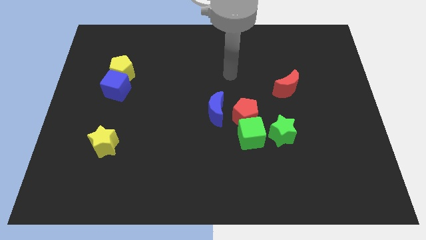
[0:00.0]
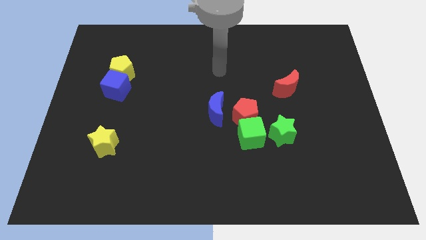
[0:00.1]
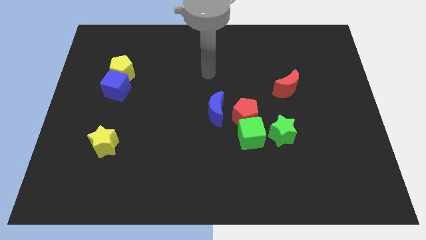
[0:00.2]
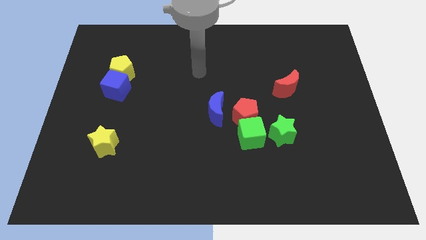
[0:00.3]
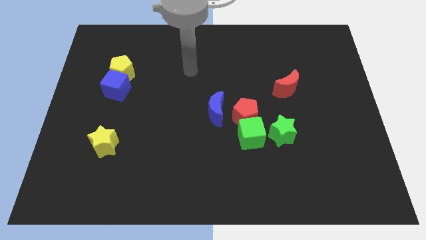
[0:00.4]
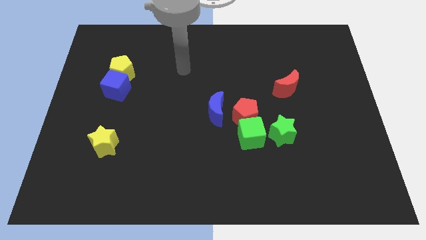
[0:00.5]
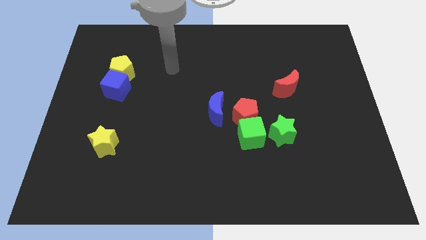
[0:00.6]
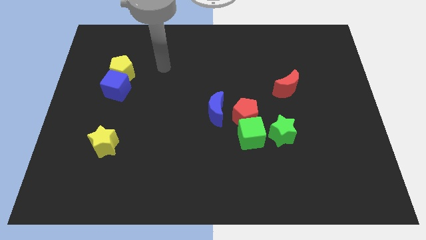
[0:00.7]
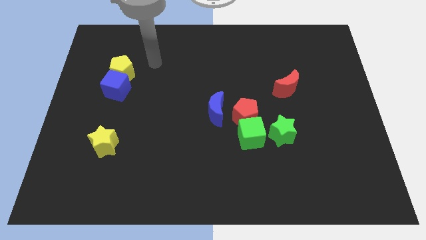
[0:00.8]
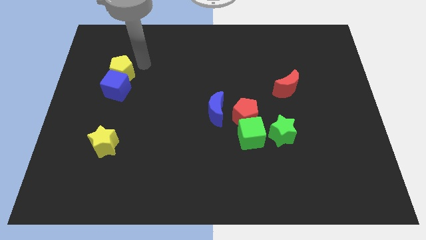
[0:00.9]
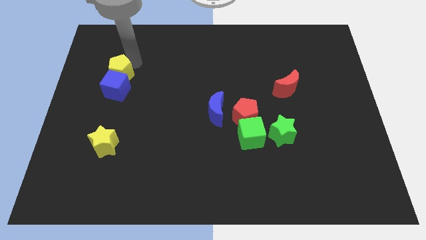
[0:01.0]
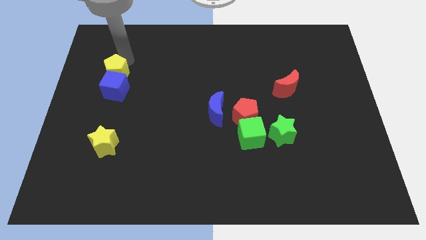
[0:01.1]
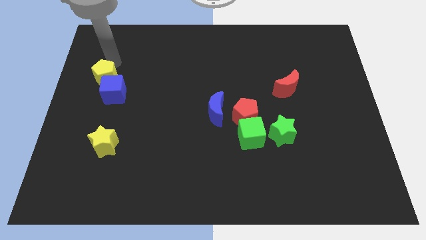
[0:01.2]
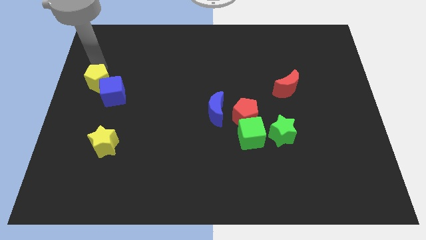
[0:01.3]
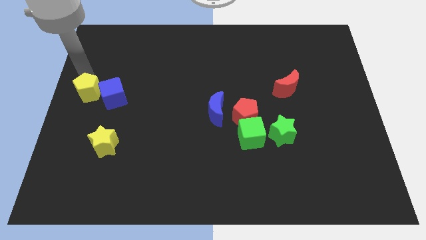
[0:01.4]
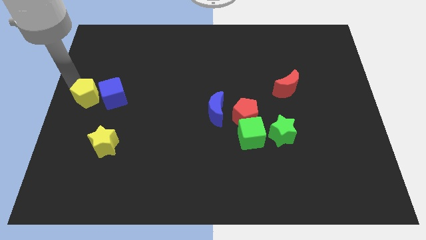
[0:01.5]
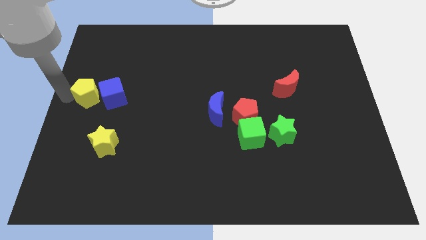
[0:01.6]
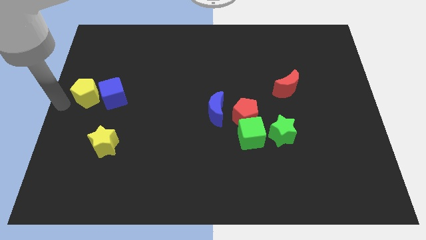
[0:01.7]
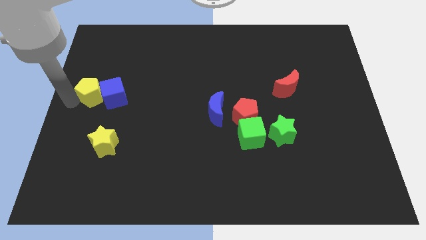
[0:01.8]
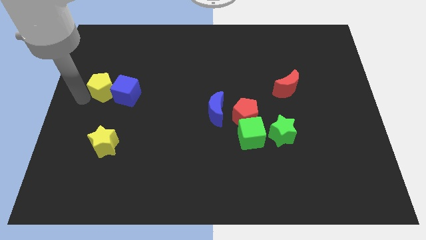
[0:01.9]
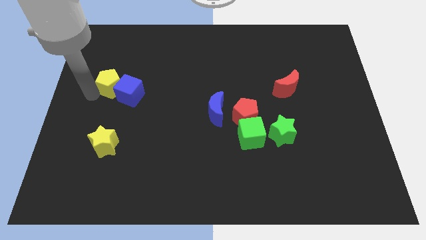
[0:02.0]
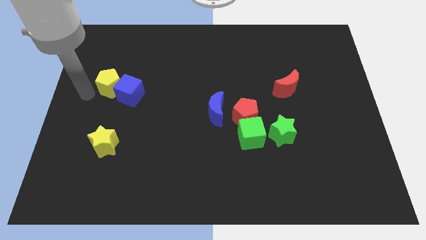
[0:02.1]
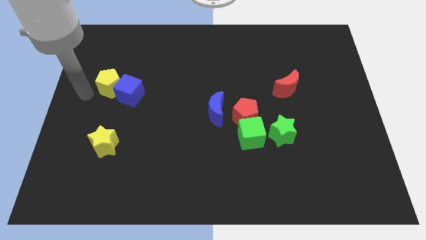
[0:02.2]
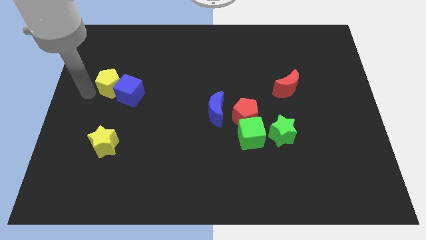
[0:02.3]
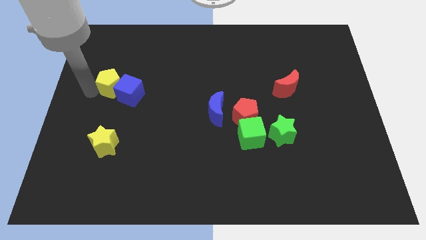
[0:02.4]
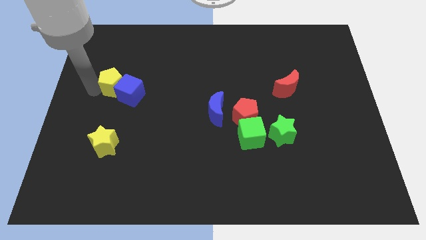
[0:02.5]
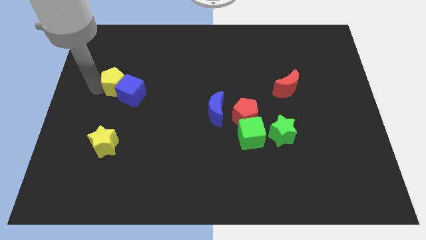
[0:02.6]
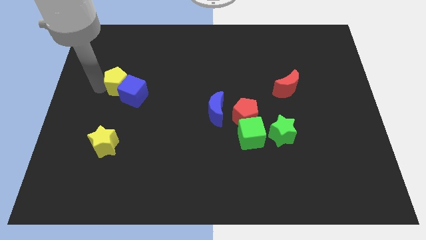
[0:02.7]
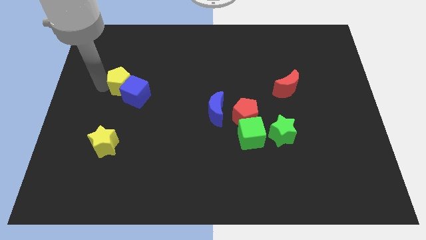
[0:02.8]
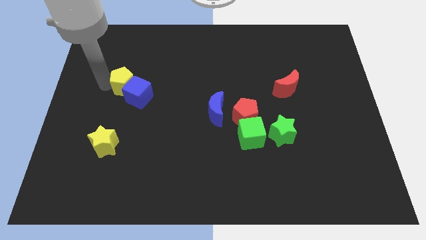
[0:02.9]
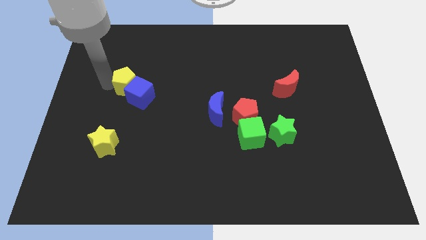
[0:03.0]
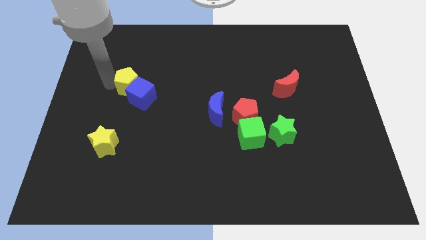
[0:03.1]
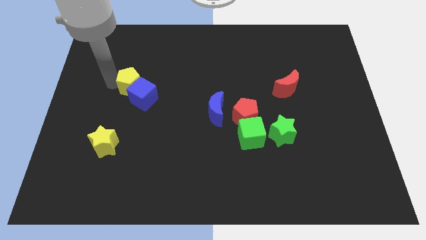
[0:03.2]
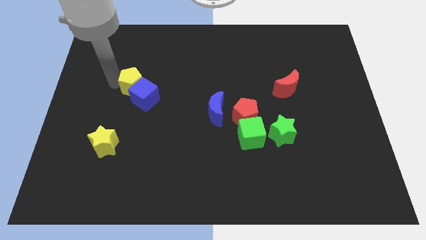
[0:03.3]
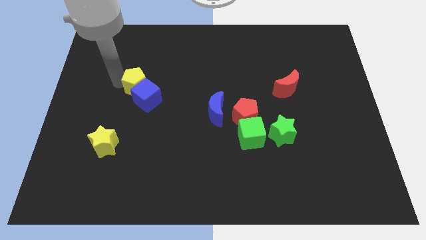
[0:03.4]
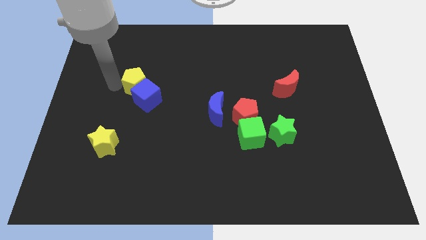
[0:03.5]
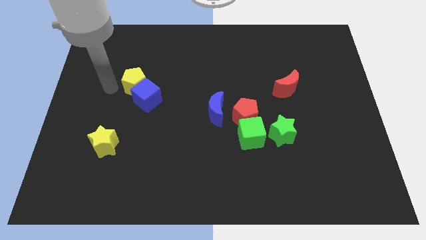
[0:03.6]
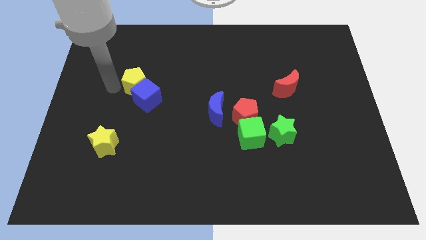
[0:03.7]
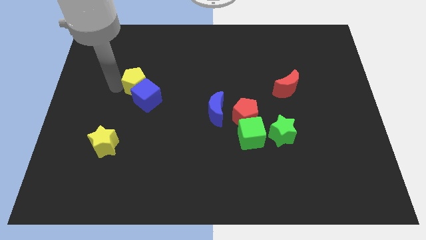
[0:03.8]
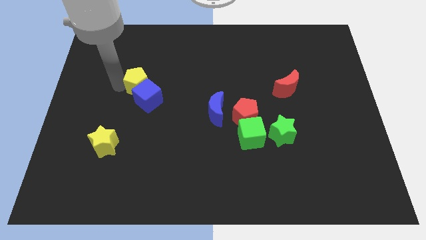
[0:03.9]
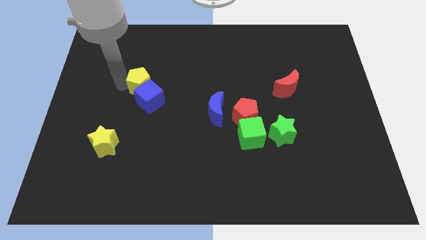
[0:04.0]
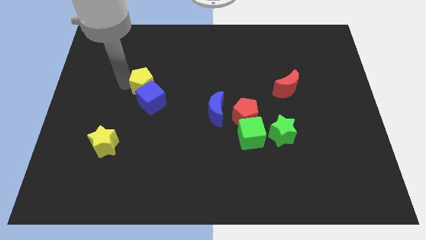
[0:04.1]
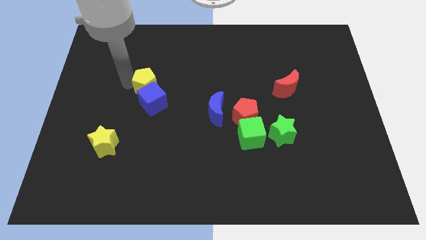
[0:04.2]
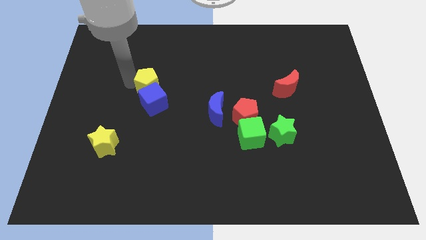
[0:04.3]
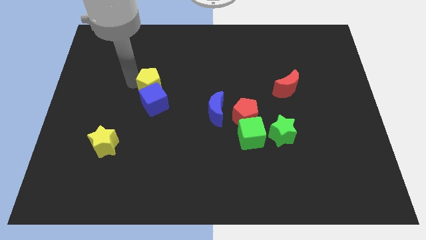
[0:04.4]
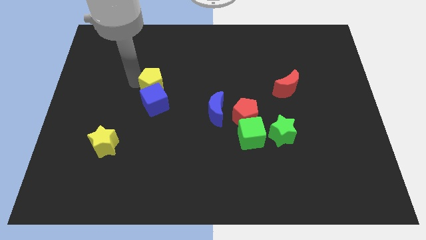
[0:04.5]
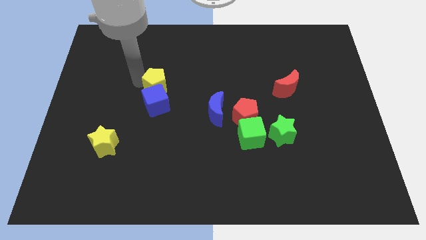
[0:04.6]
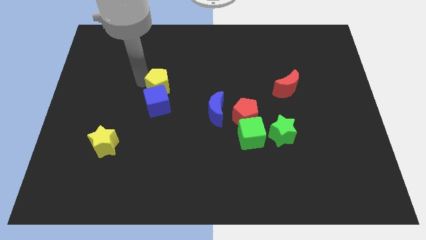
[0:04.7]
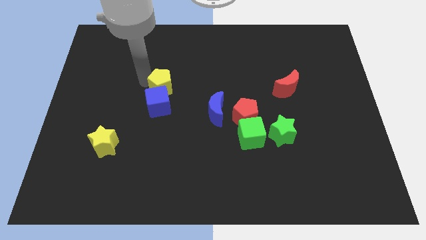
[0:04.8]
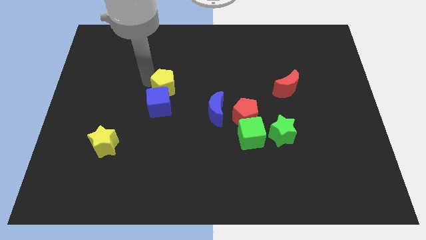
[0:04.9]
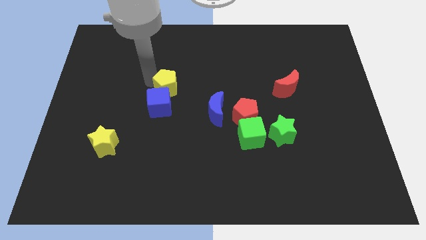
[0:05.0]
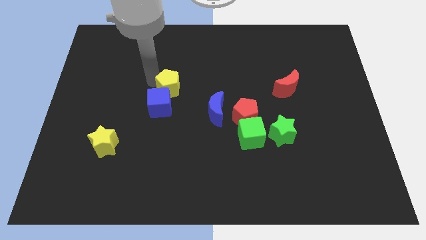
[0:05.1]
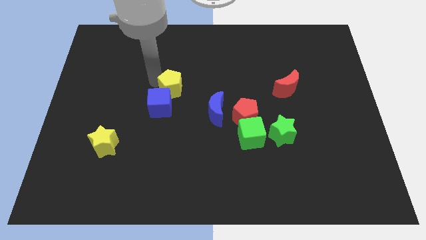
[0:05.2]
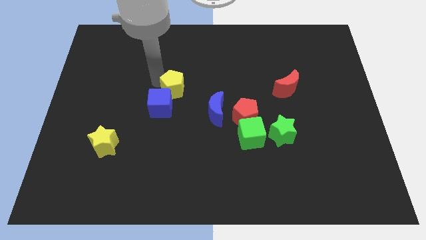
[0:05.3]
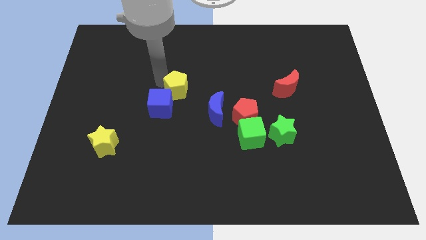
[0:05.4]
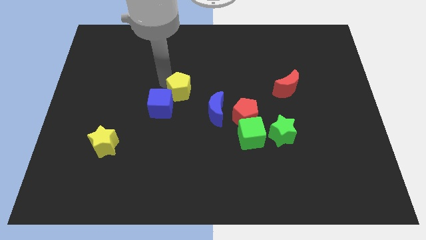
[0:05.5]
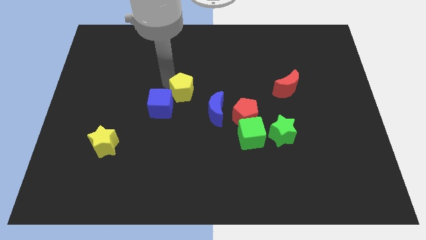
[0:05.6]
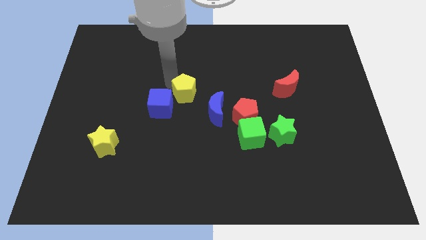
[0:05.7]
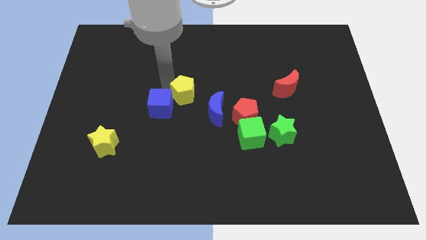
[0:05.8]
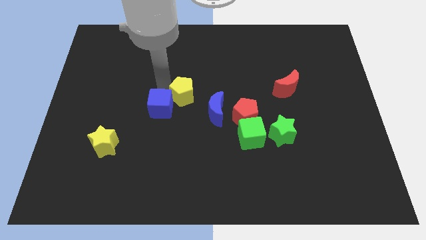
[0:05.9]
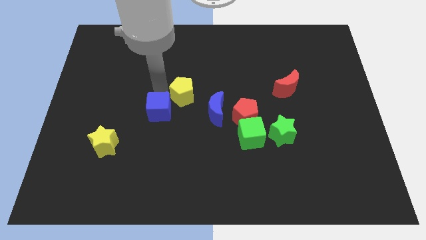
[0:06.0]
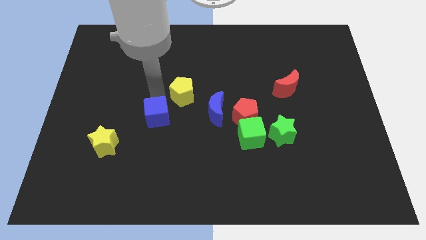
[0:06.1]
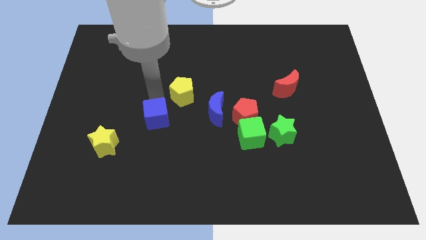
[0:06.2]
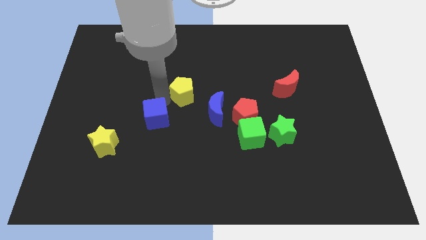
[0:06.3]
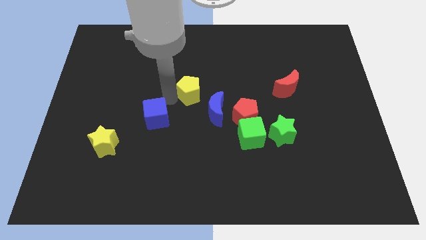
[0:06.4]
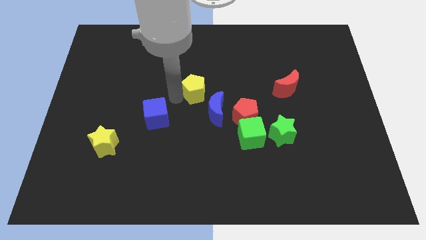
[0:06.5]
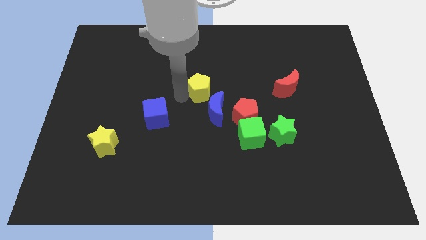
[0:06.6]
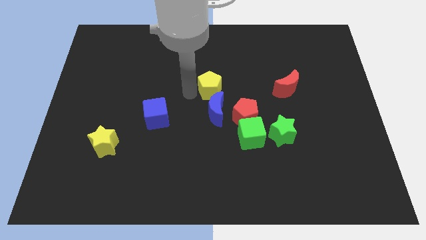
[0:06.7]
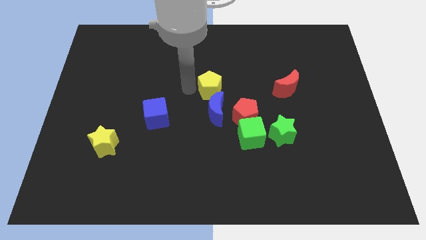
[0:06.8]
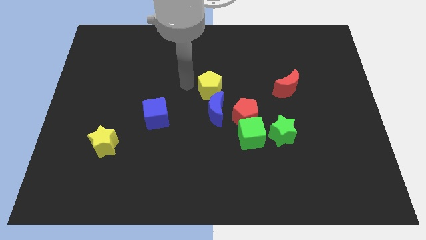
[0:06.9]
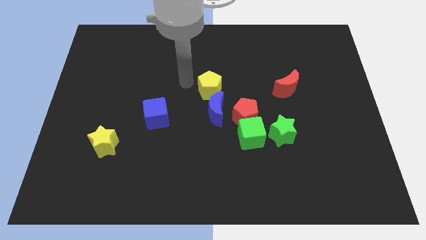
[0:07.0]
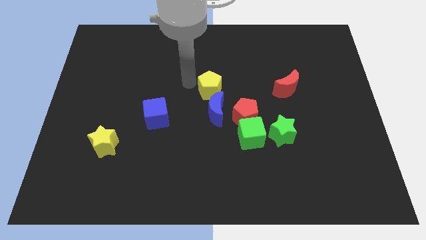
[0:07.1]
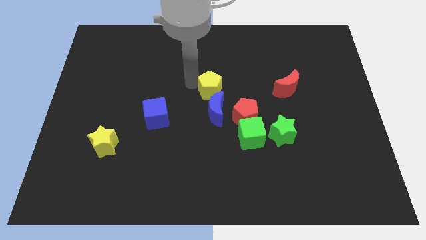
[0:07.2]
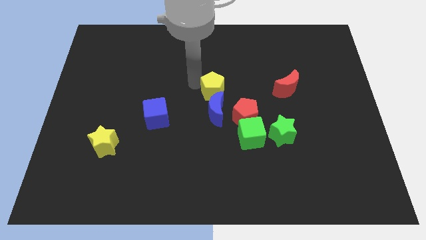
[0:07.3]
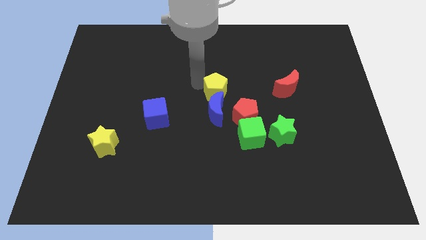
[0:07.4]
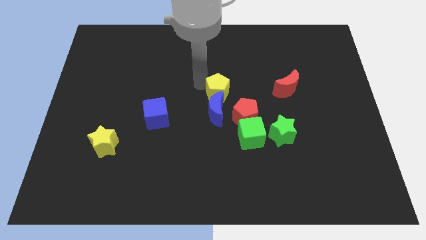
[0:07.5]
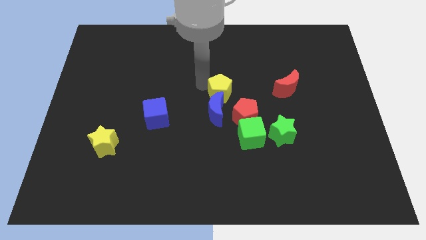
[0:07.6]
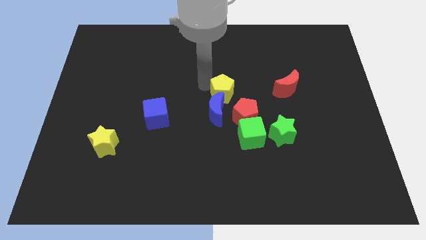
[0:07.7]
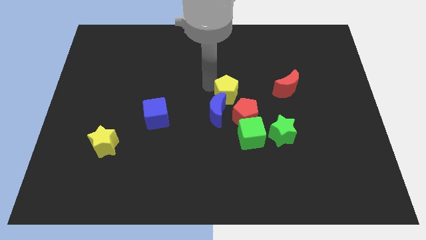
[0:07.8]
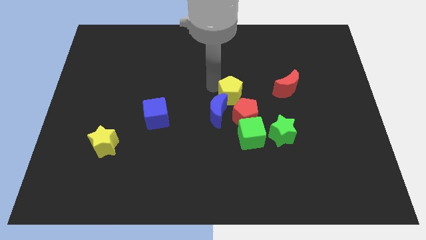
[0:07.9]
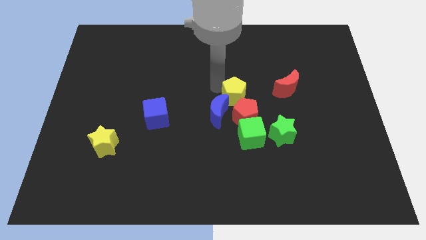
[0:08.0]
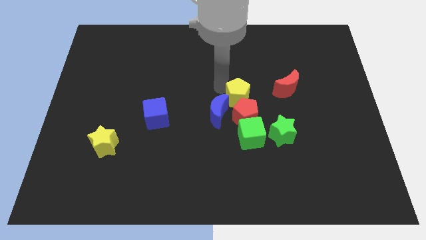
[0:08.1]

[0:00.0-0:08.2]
move the yellow pentagon to the right side of the blue moon
